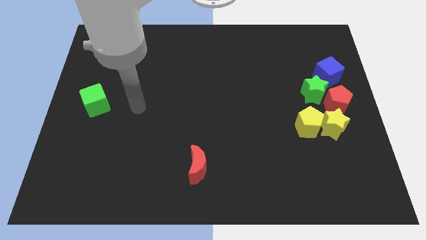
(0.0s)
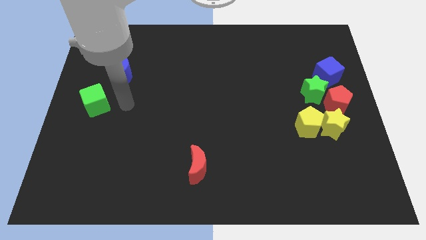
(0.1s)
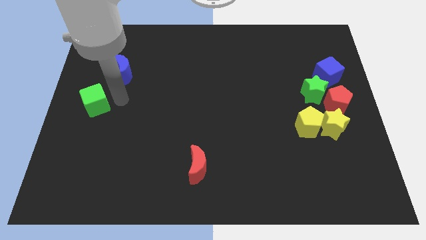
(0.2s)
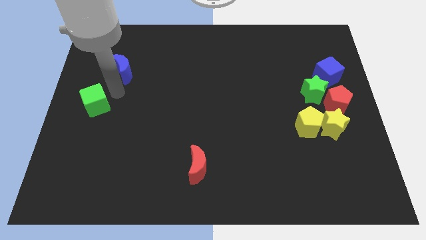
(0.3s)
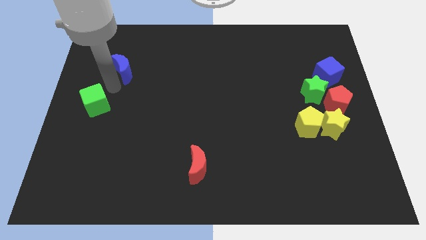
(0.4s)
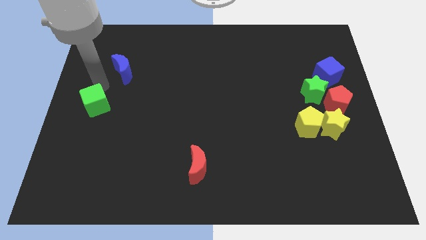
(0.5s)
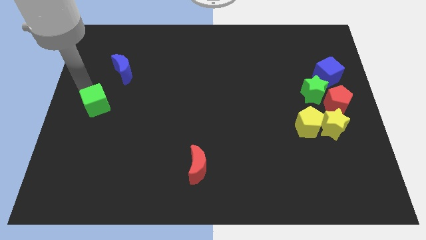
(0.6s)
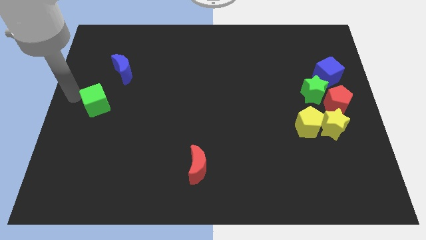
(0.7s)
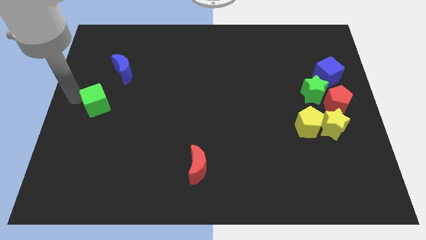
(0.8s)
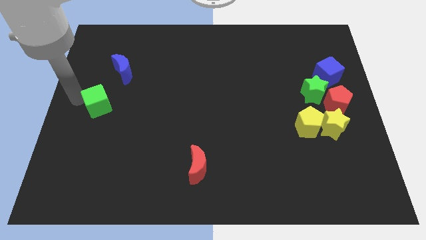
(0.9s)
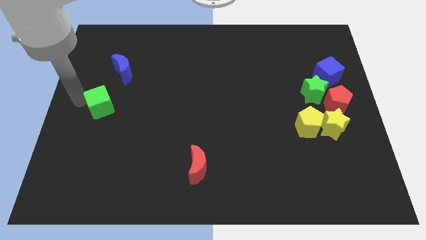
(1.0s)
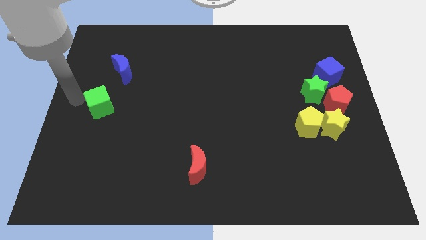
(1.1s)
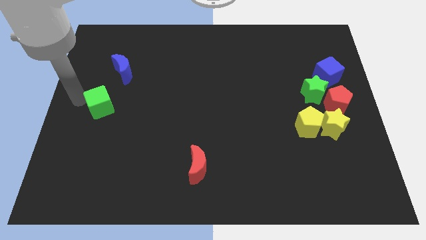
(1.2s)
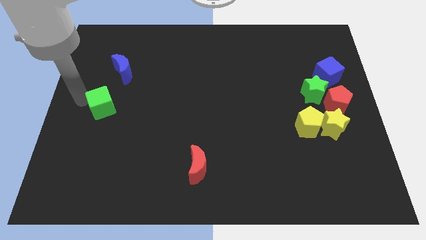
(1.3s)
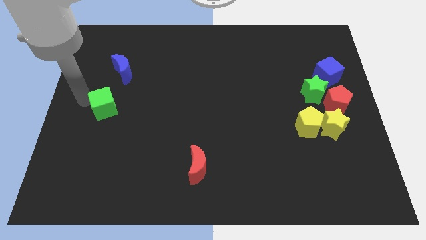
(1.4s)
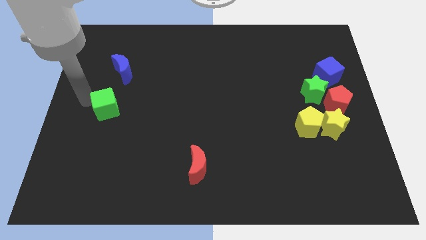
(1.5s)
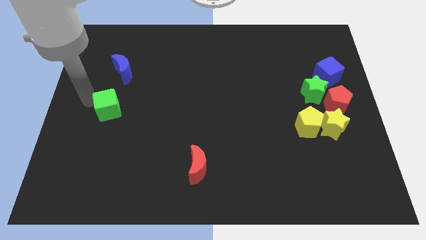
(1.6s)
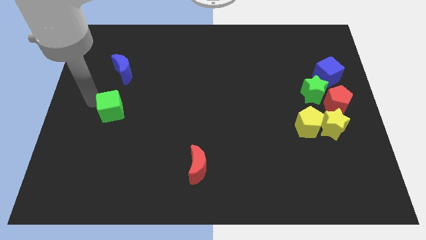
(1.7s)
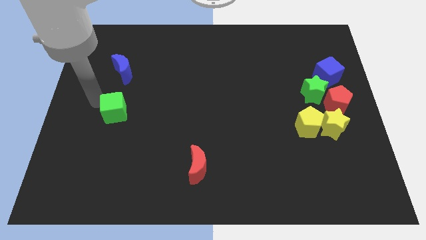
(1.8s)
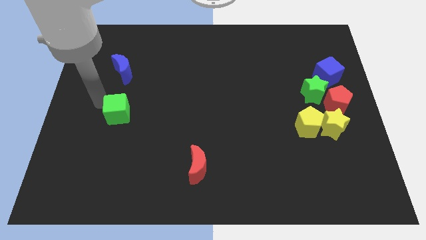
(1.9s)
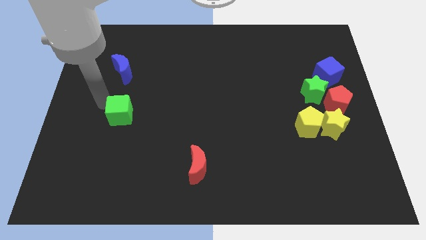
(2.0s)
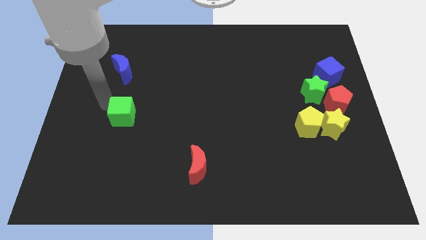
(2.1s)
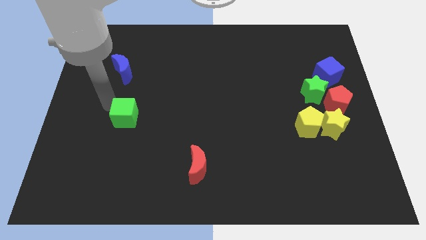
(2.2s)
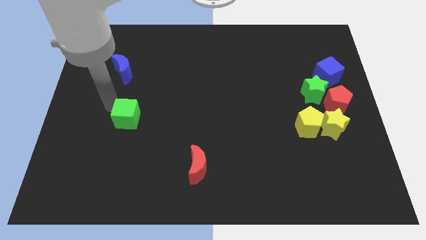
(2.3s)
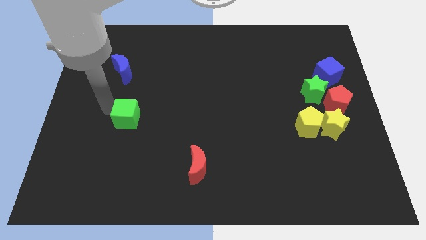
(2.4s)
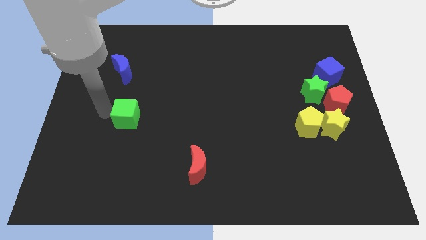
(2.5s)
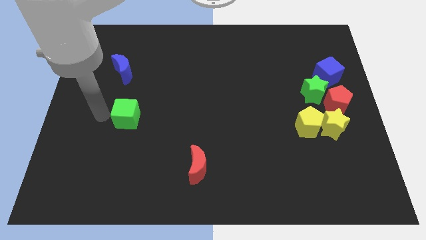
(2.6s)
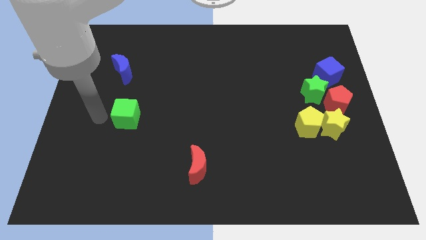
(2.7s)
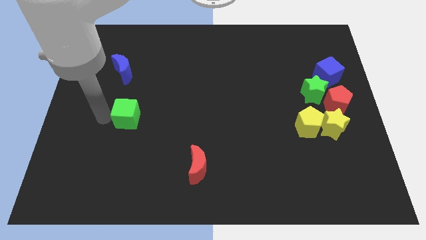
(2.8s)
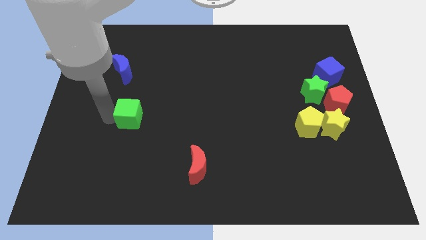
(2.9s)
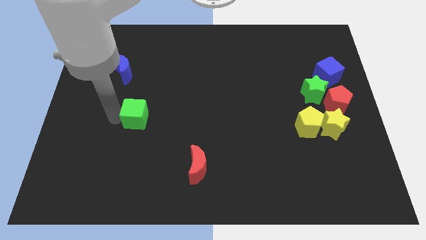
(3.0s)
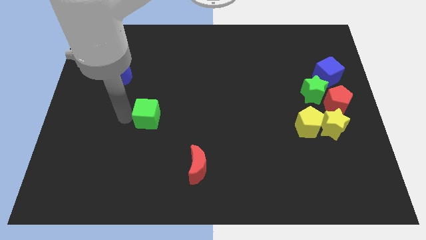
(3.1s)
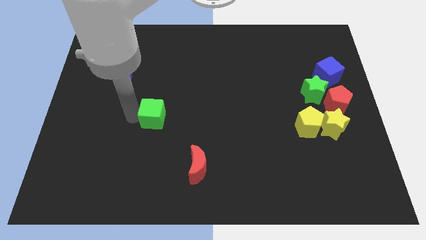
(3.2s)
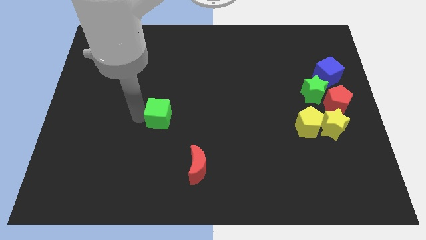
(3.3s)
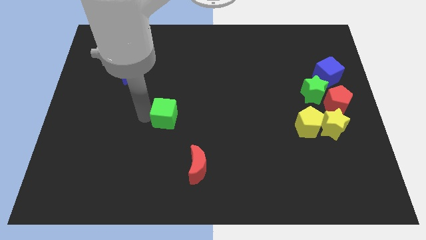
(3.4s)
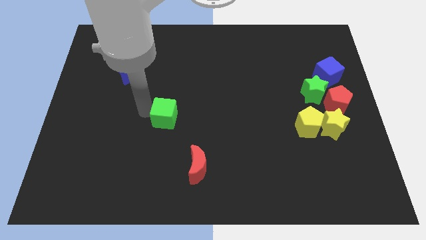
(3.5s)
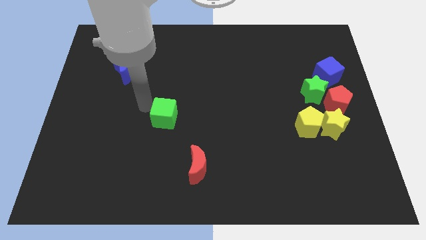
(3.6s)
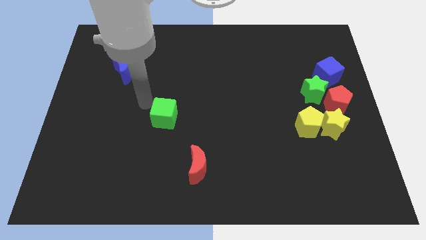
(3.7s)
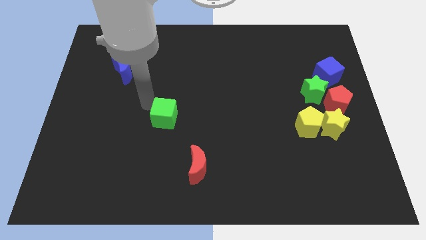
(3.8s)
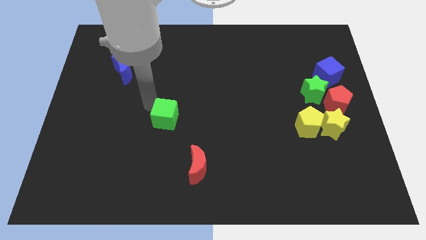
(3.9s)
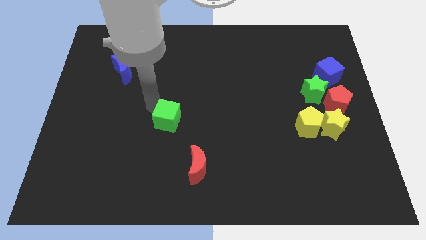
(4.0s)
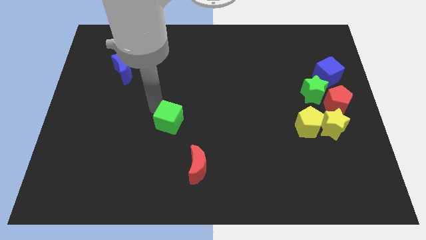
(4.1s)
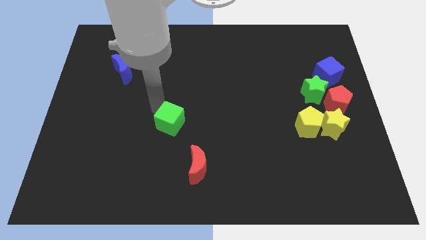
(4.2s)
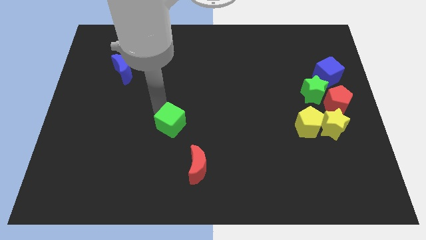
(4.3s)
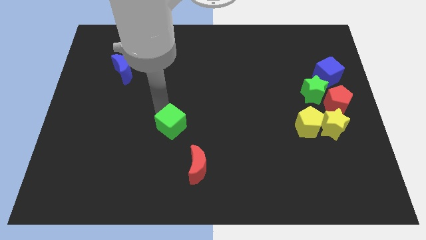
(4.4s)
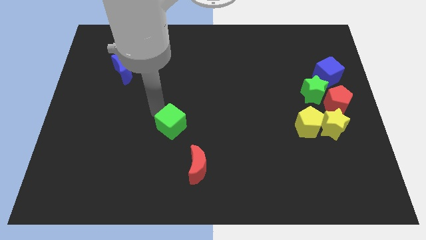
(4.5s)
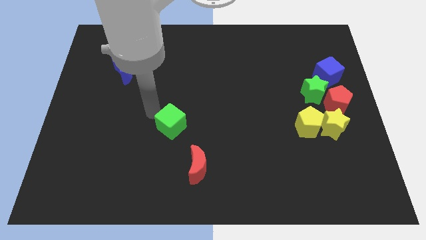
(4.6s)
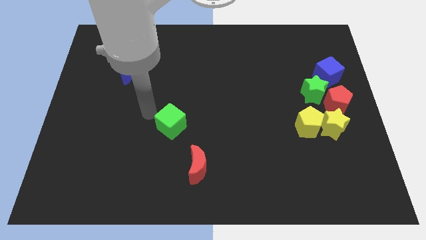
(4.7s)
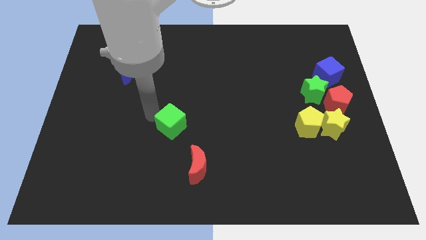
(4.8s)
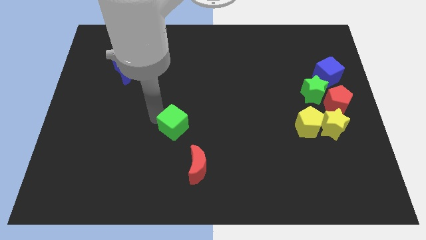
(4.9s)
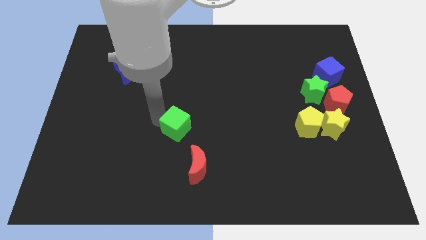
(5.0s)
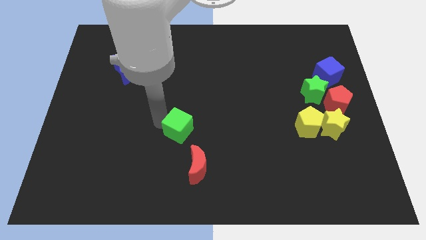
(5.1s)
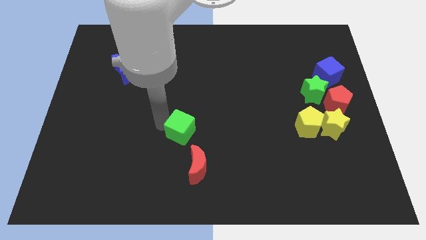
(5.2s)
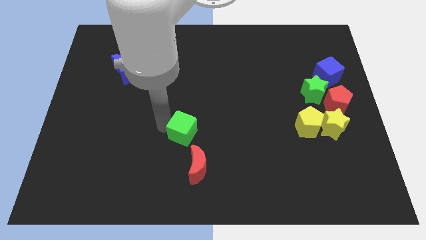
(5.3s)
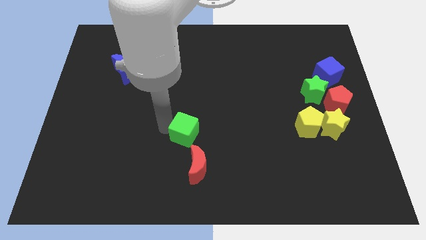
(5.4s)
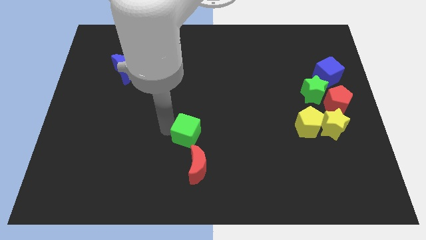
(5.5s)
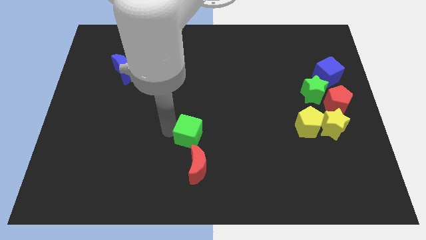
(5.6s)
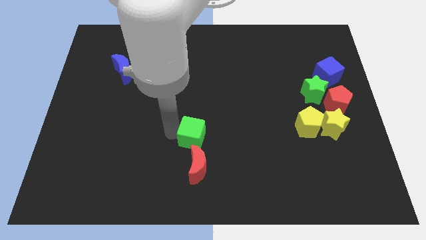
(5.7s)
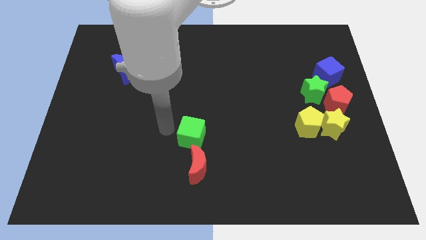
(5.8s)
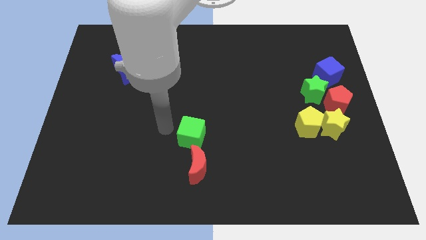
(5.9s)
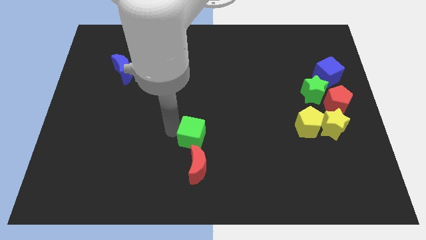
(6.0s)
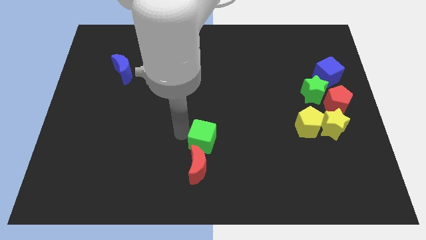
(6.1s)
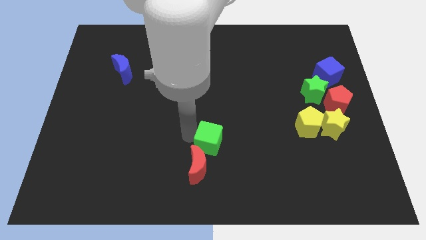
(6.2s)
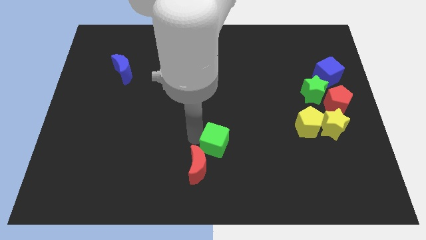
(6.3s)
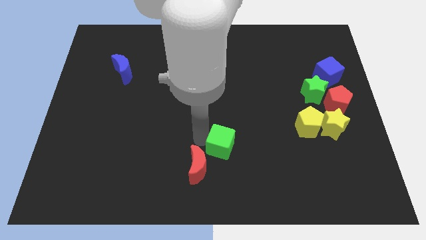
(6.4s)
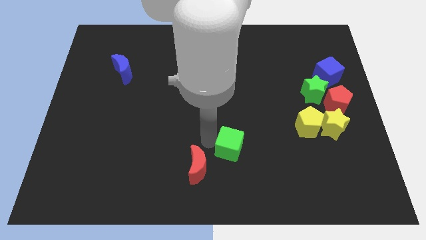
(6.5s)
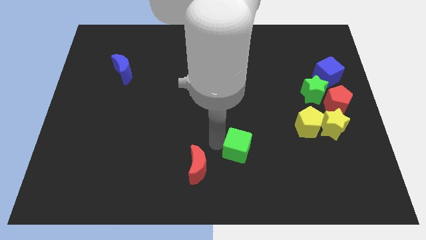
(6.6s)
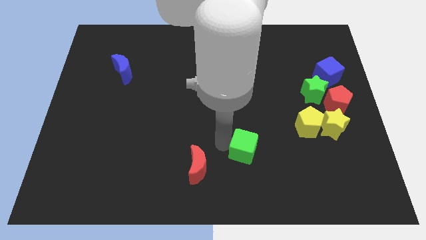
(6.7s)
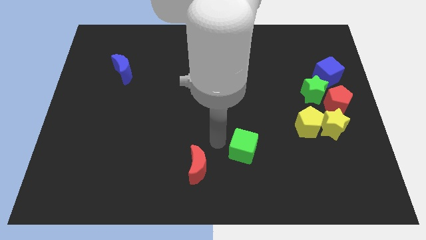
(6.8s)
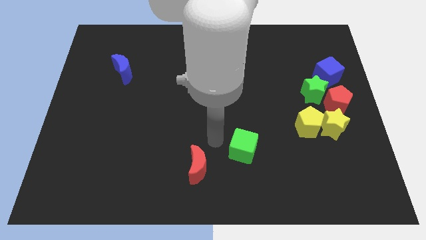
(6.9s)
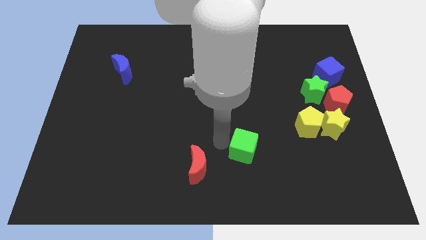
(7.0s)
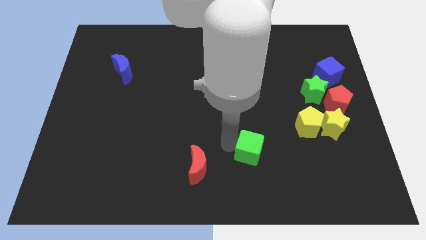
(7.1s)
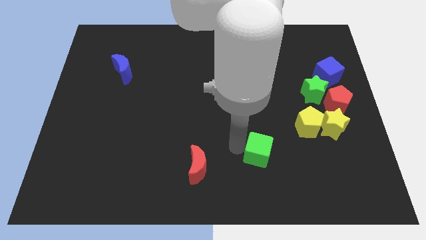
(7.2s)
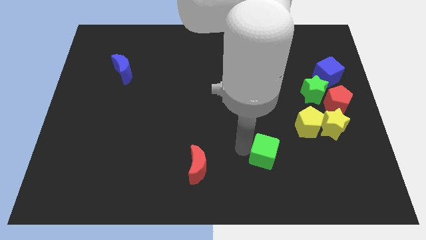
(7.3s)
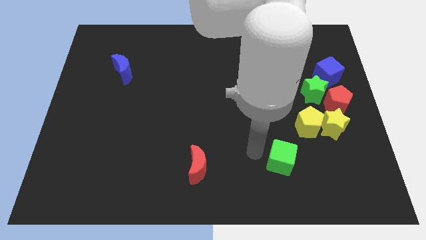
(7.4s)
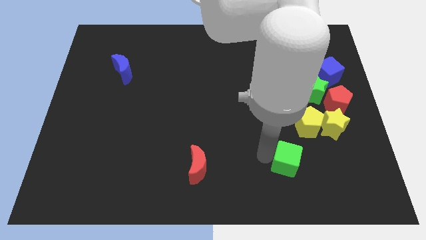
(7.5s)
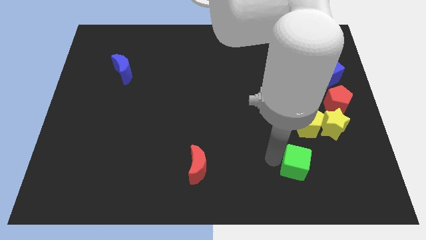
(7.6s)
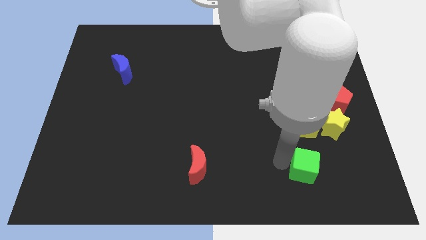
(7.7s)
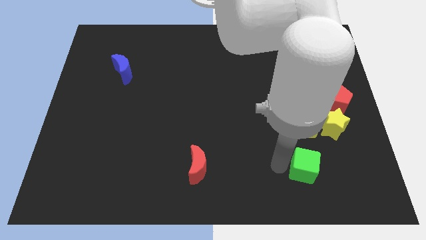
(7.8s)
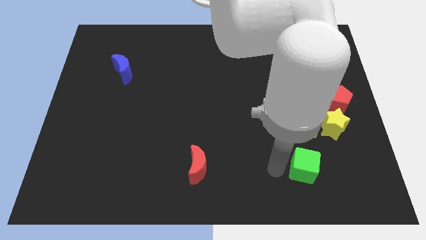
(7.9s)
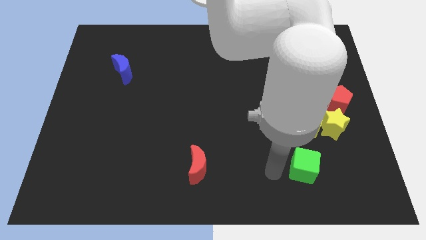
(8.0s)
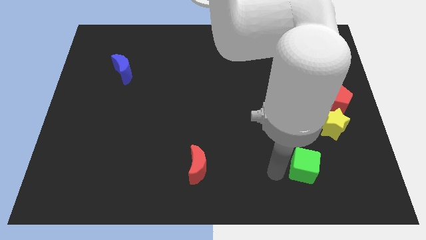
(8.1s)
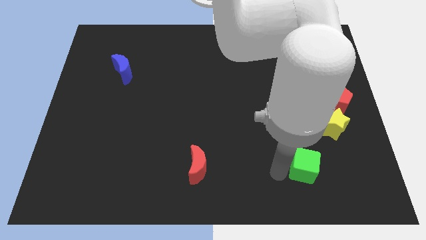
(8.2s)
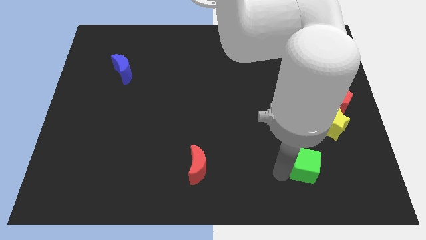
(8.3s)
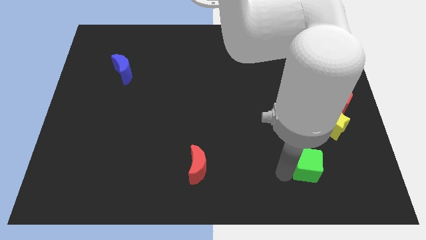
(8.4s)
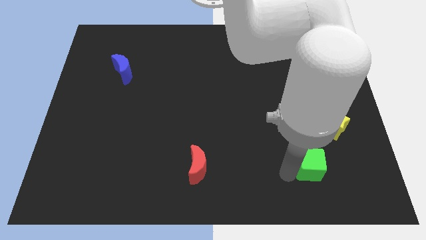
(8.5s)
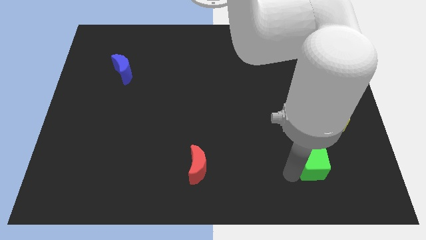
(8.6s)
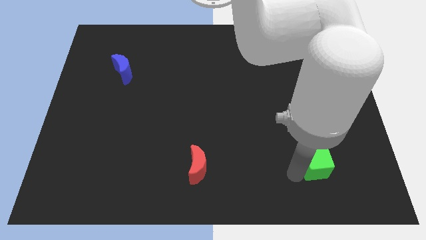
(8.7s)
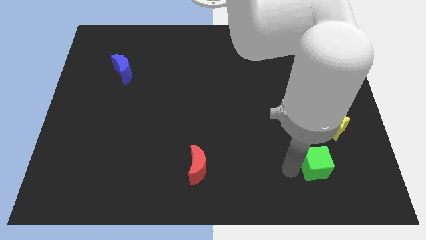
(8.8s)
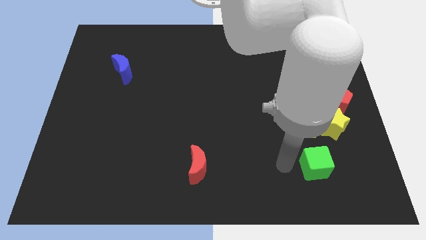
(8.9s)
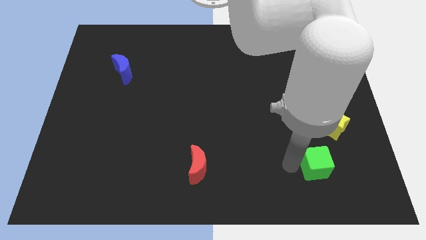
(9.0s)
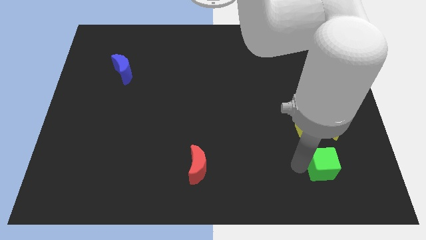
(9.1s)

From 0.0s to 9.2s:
slide the green cube below the yellow star
